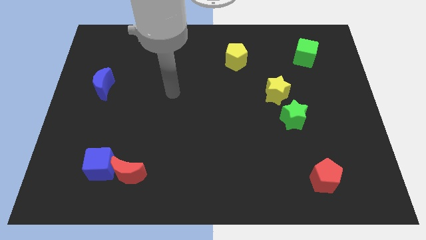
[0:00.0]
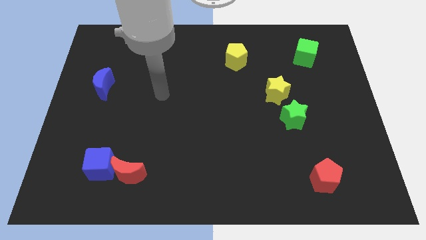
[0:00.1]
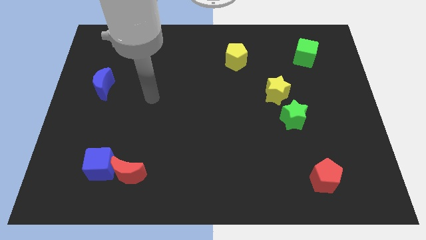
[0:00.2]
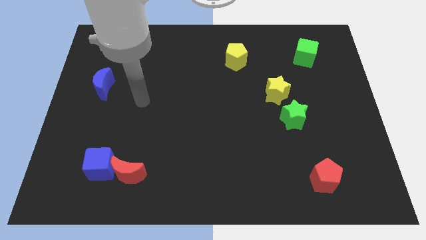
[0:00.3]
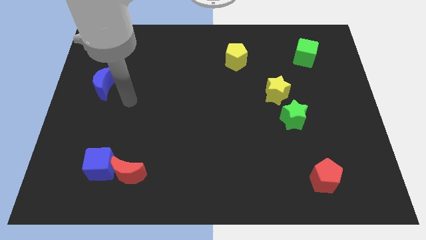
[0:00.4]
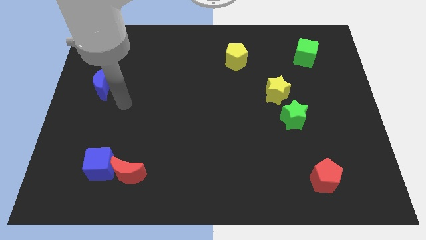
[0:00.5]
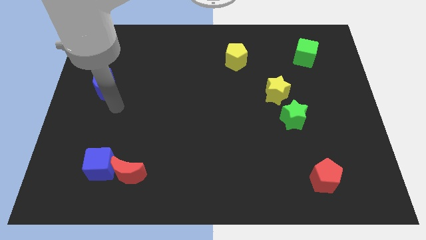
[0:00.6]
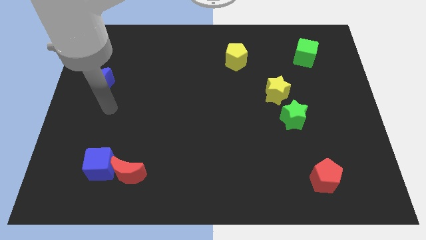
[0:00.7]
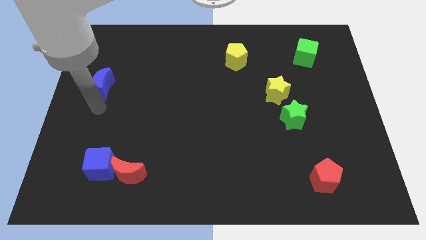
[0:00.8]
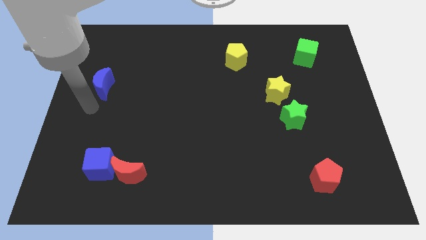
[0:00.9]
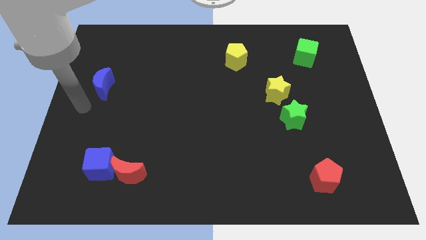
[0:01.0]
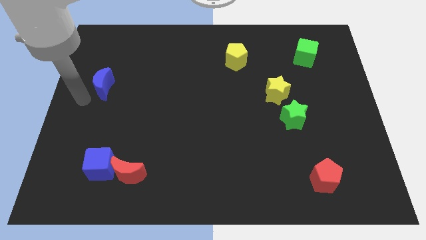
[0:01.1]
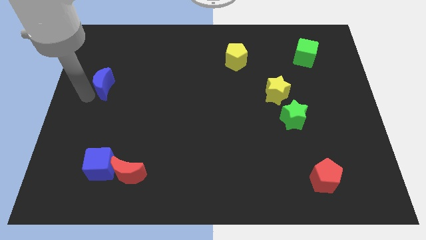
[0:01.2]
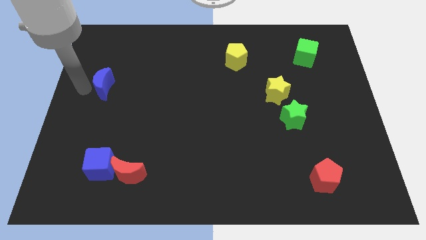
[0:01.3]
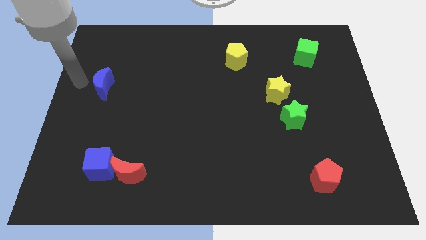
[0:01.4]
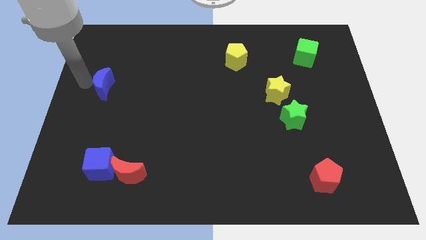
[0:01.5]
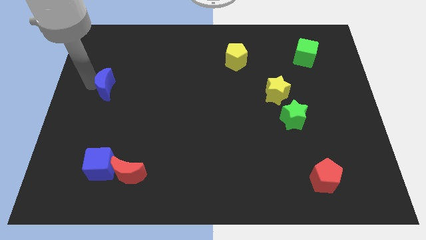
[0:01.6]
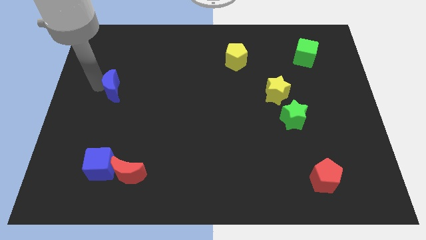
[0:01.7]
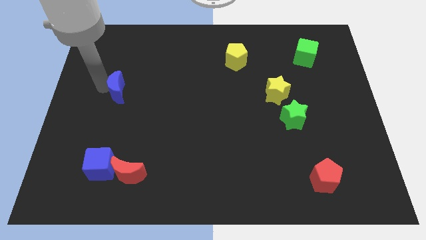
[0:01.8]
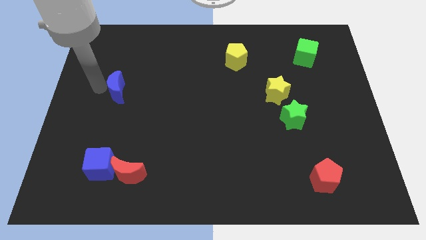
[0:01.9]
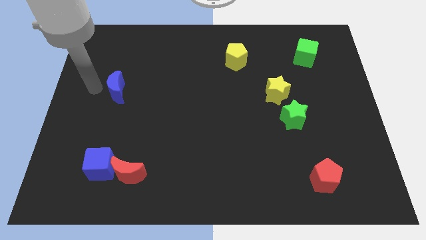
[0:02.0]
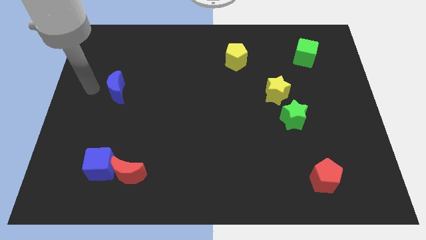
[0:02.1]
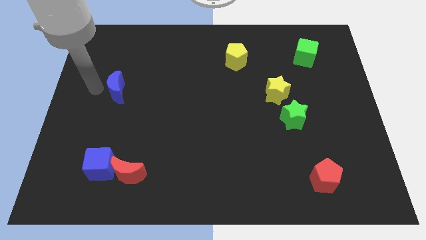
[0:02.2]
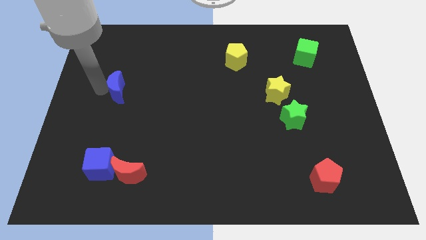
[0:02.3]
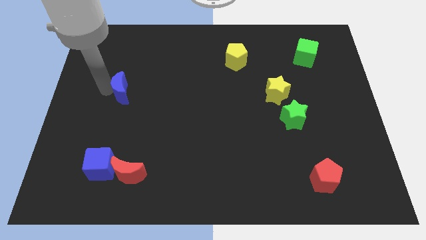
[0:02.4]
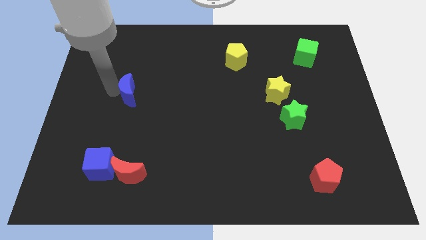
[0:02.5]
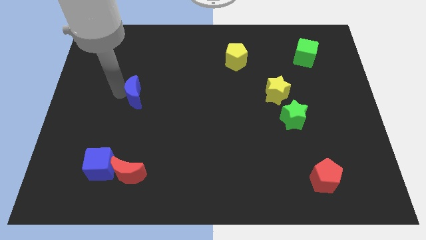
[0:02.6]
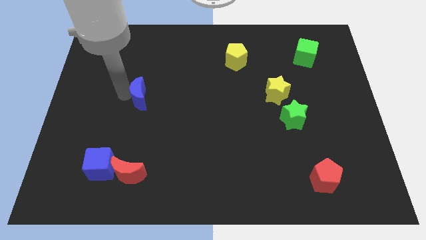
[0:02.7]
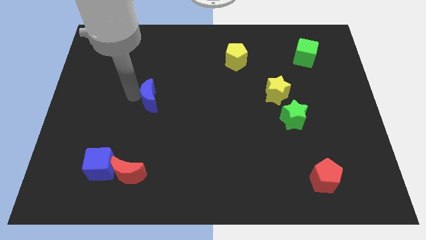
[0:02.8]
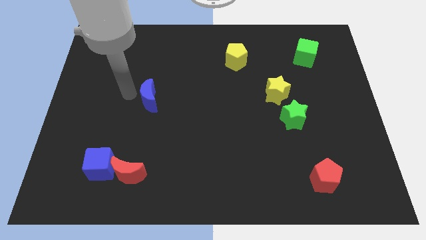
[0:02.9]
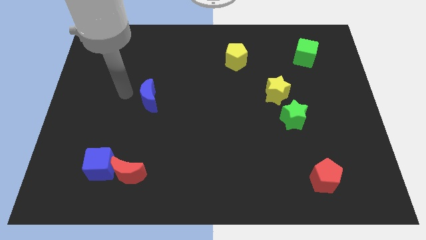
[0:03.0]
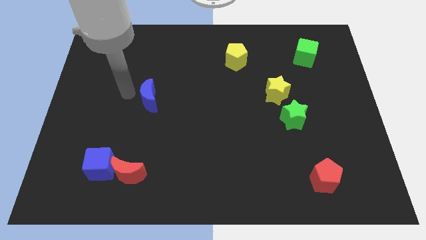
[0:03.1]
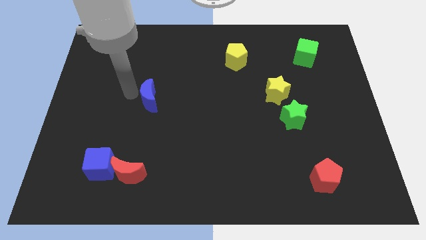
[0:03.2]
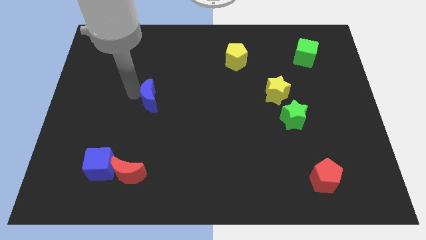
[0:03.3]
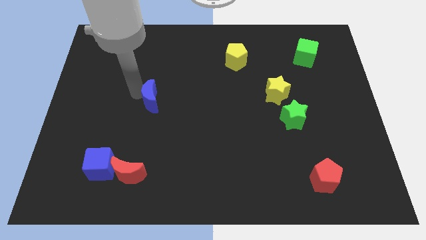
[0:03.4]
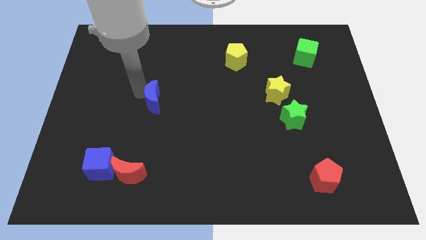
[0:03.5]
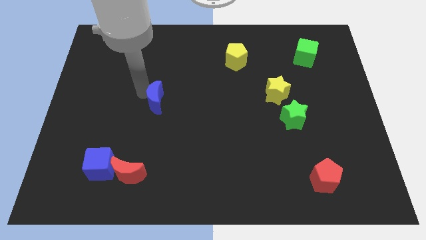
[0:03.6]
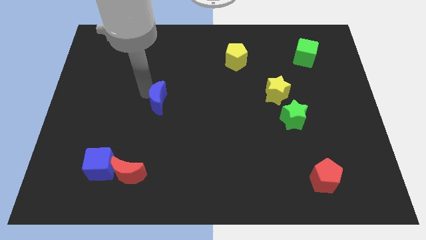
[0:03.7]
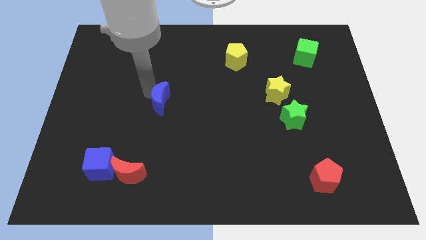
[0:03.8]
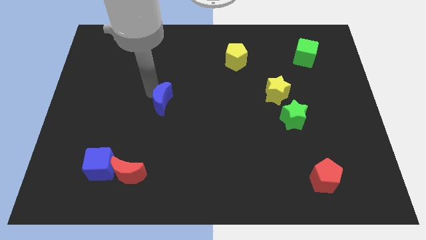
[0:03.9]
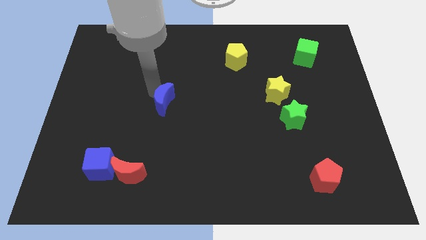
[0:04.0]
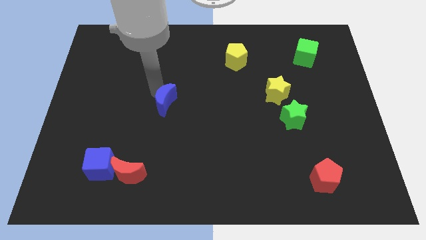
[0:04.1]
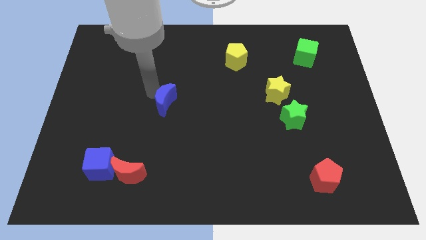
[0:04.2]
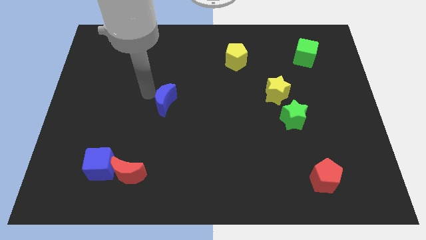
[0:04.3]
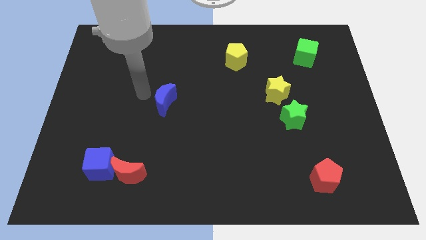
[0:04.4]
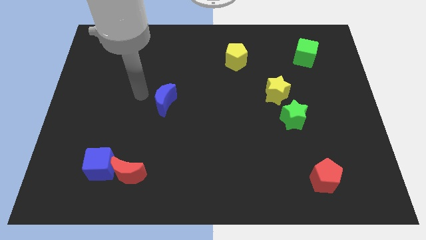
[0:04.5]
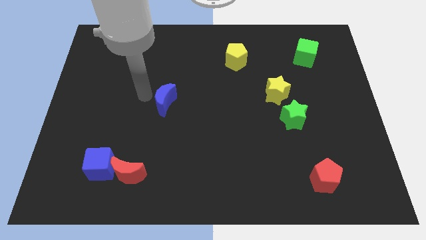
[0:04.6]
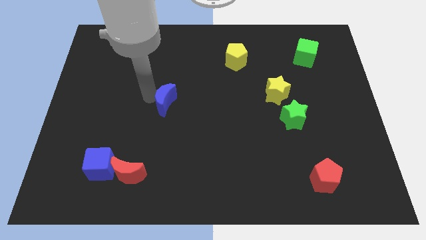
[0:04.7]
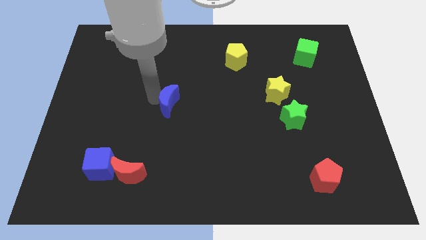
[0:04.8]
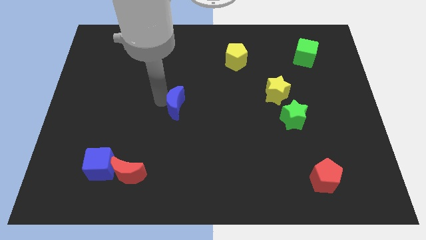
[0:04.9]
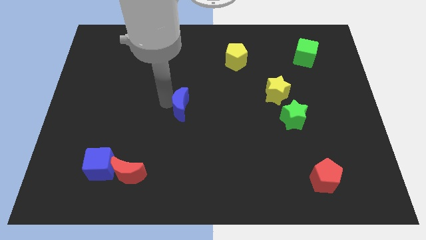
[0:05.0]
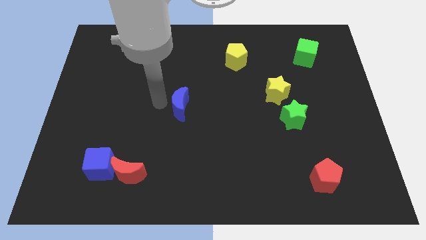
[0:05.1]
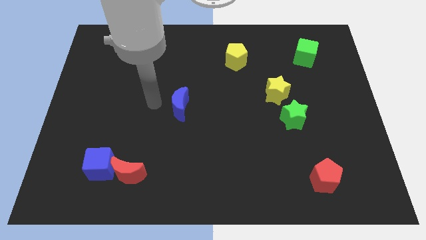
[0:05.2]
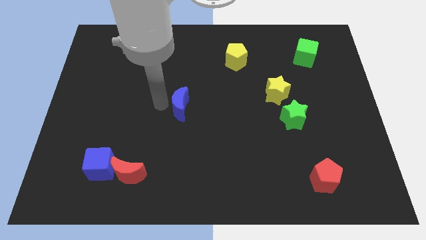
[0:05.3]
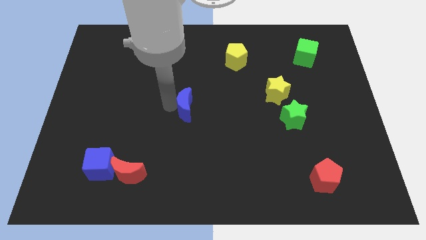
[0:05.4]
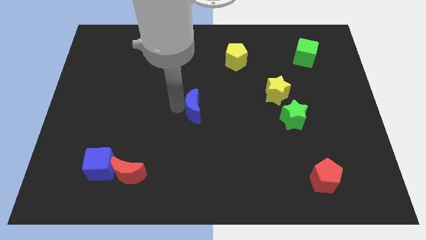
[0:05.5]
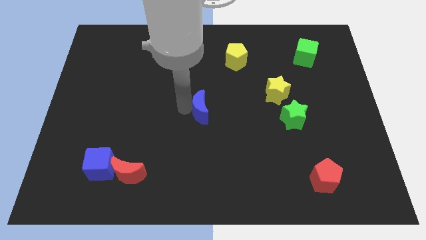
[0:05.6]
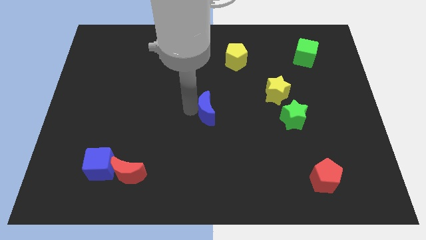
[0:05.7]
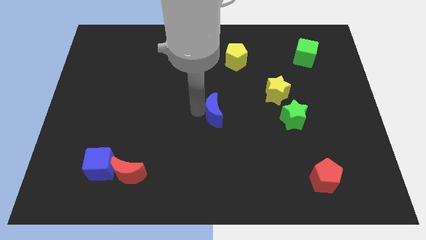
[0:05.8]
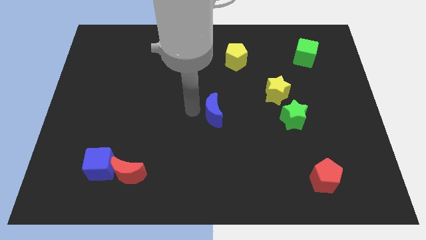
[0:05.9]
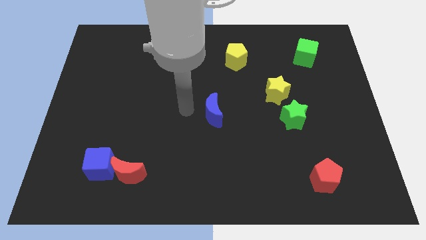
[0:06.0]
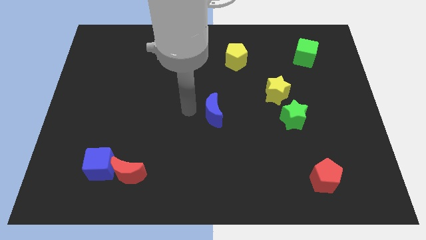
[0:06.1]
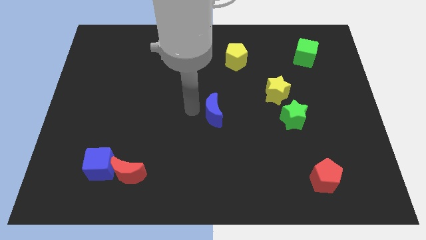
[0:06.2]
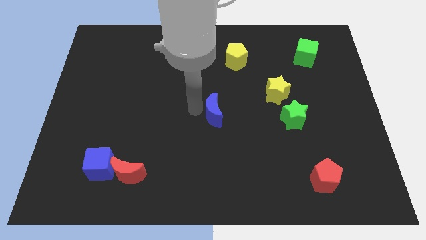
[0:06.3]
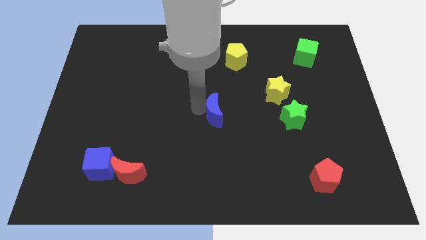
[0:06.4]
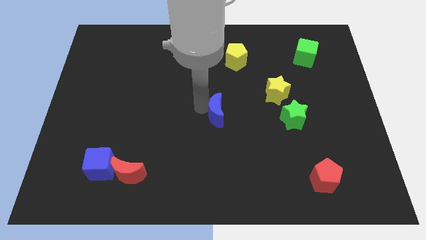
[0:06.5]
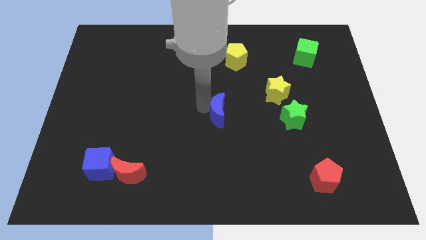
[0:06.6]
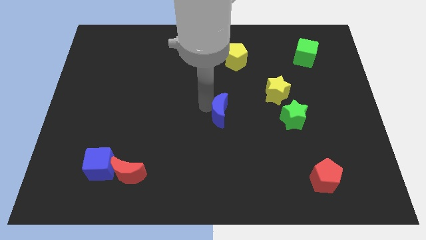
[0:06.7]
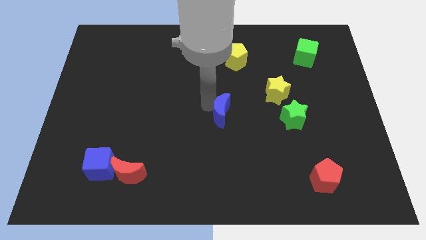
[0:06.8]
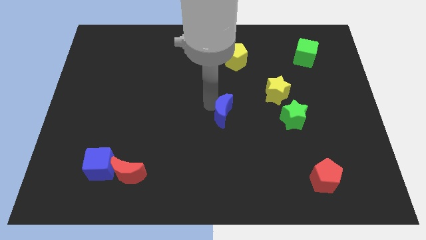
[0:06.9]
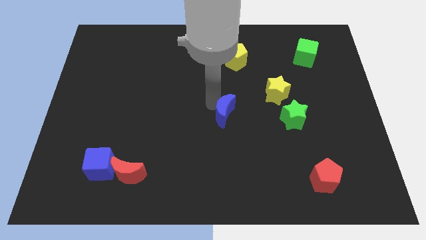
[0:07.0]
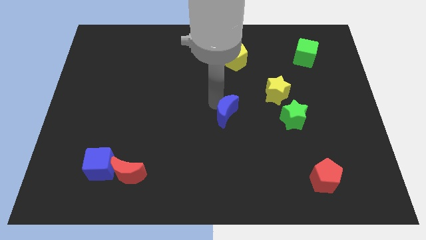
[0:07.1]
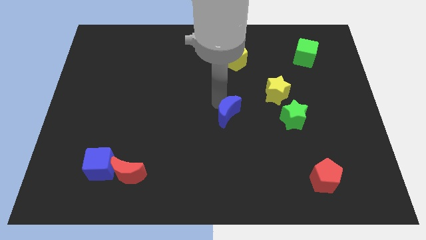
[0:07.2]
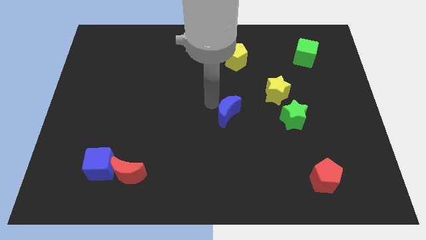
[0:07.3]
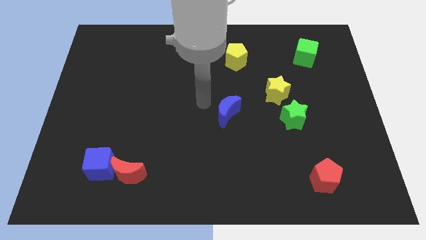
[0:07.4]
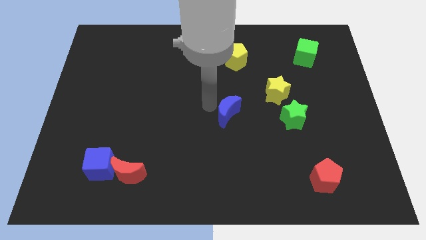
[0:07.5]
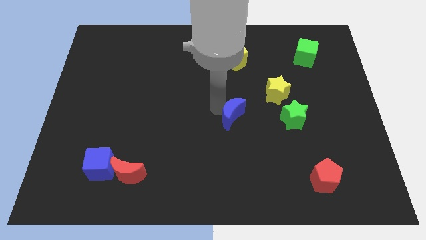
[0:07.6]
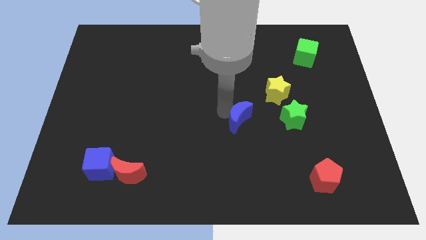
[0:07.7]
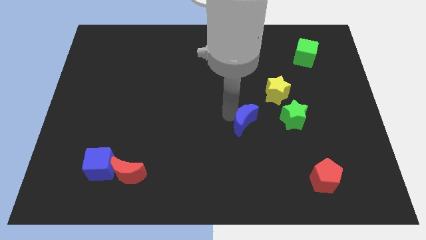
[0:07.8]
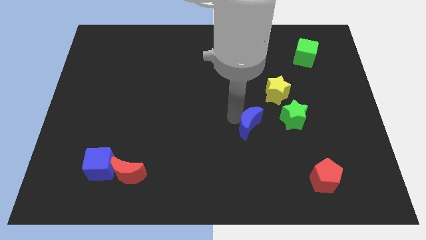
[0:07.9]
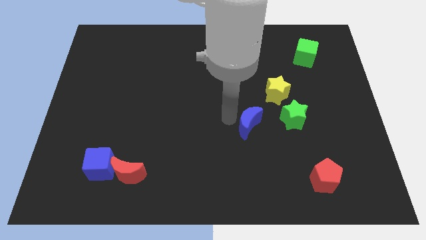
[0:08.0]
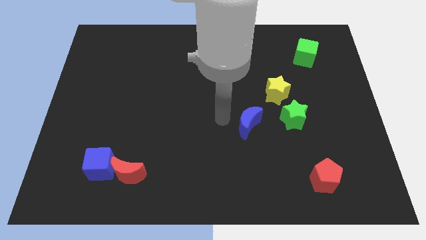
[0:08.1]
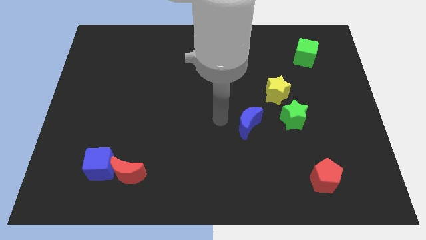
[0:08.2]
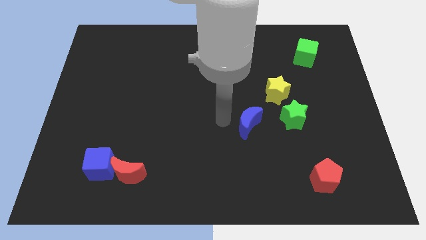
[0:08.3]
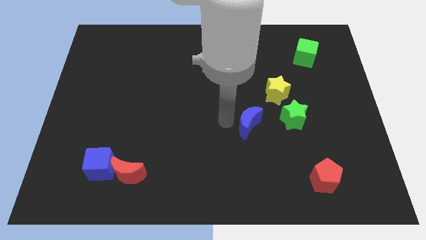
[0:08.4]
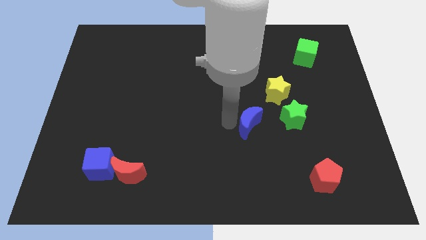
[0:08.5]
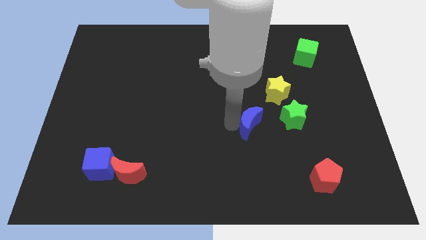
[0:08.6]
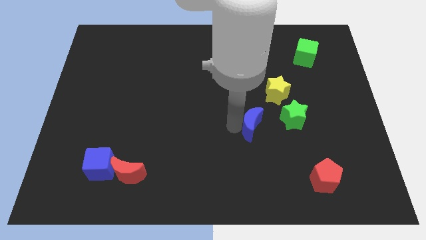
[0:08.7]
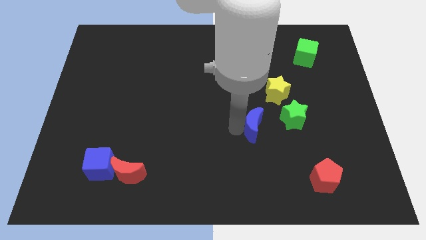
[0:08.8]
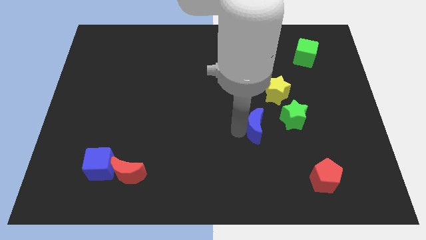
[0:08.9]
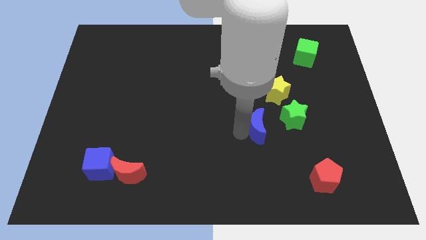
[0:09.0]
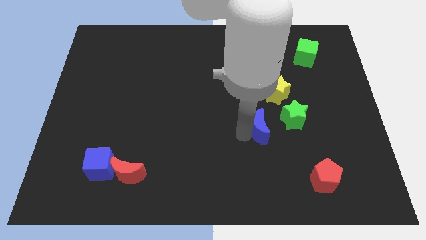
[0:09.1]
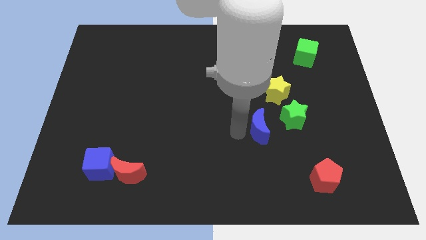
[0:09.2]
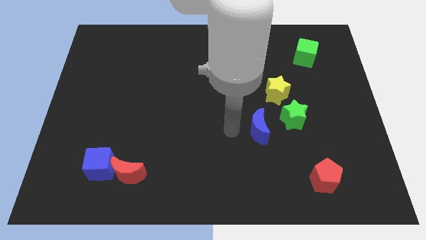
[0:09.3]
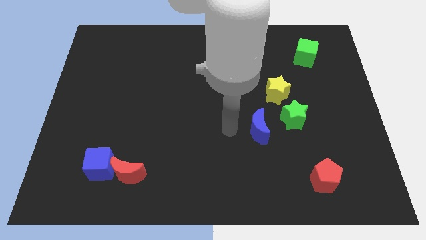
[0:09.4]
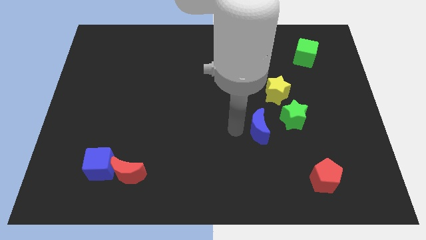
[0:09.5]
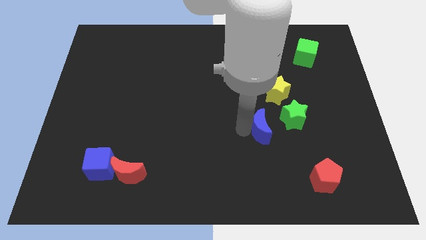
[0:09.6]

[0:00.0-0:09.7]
slide the blue moon below the yellow star
